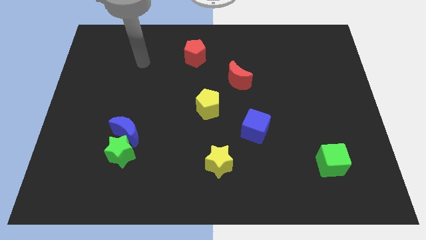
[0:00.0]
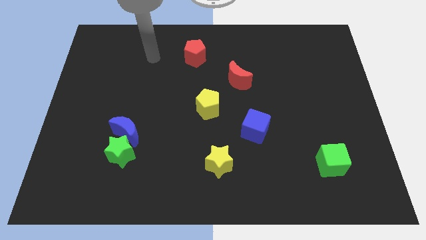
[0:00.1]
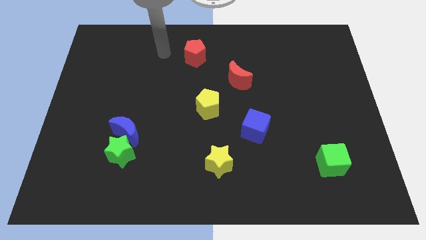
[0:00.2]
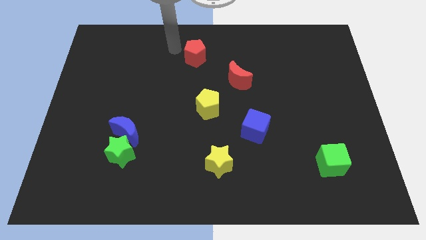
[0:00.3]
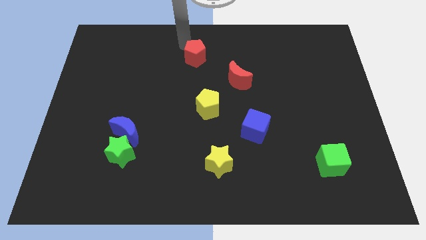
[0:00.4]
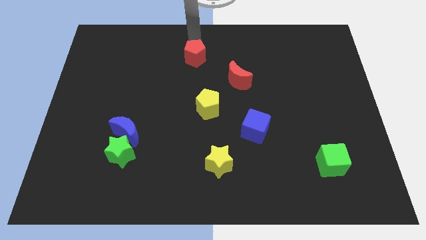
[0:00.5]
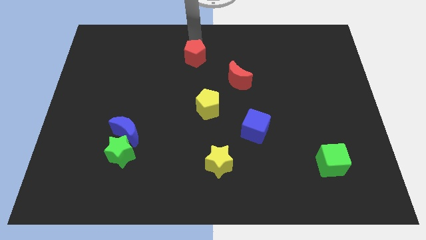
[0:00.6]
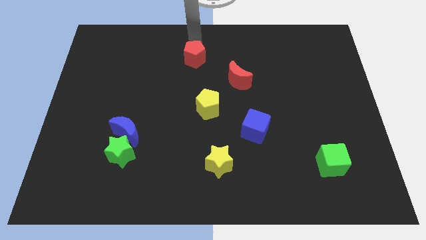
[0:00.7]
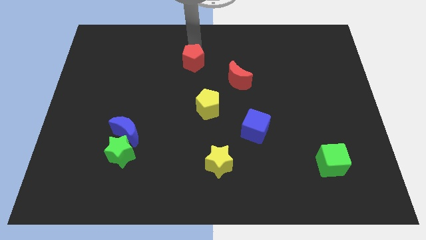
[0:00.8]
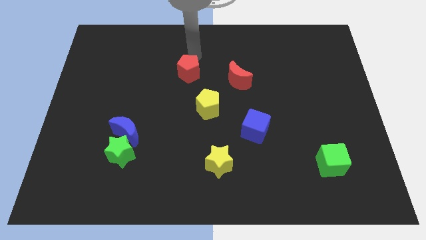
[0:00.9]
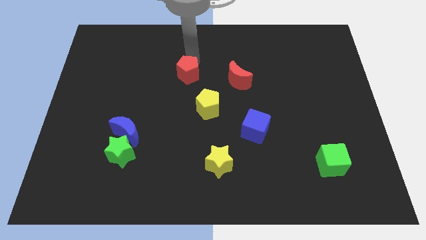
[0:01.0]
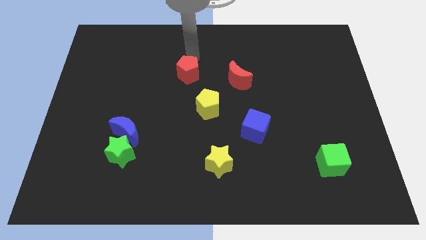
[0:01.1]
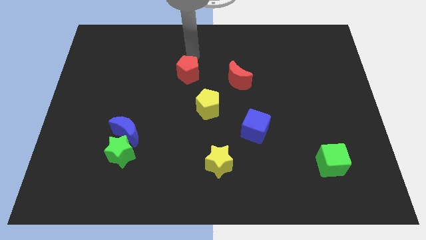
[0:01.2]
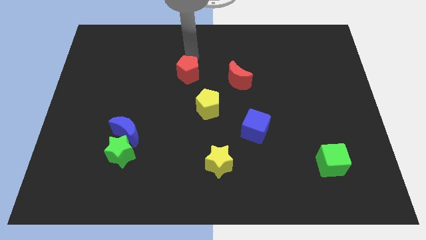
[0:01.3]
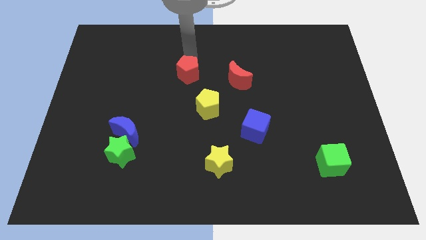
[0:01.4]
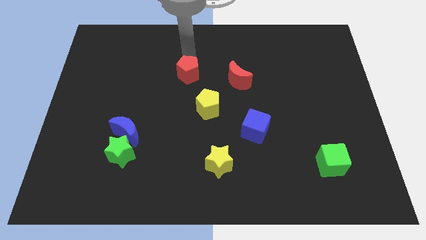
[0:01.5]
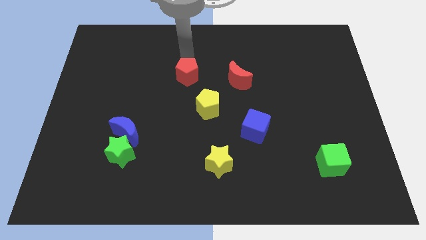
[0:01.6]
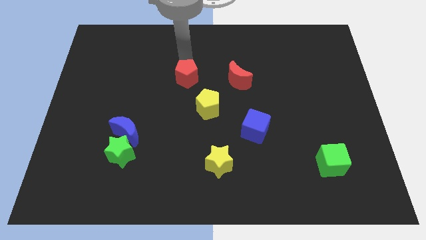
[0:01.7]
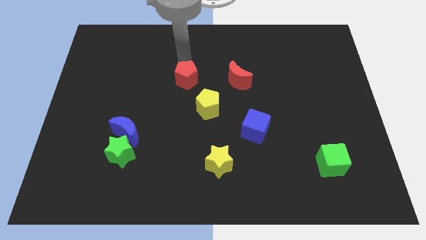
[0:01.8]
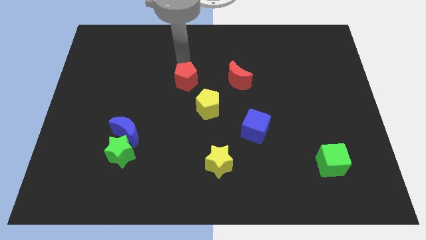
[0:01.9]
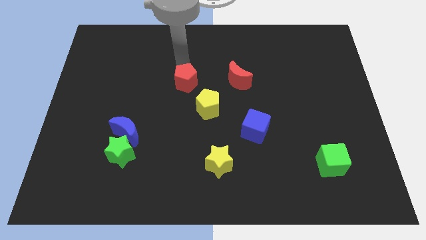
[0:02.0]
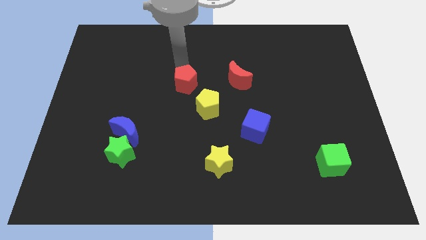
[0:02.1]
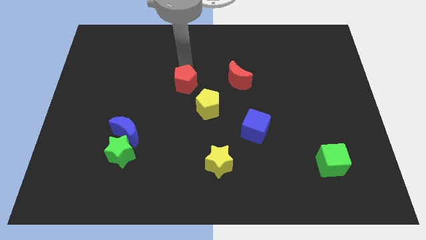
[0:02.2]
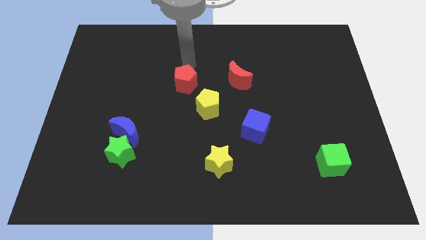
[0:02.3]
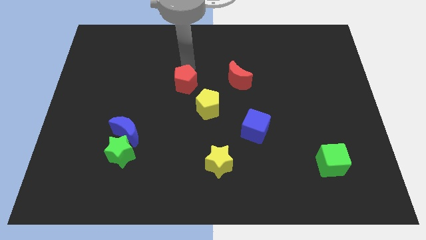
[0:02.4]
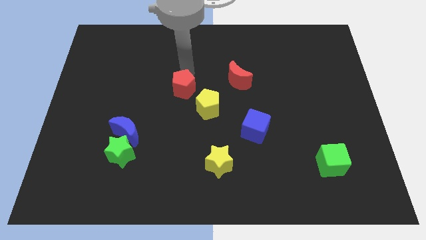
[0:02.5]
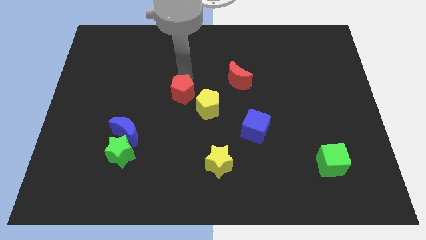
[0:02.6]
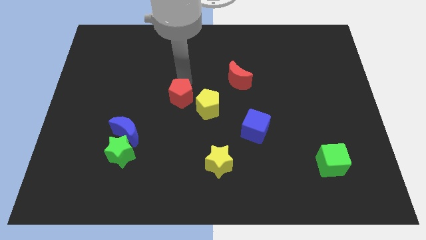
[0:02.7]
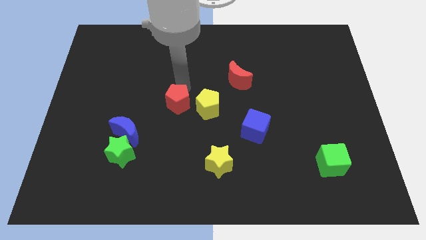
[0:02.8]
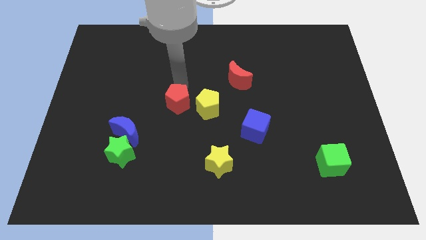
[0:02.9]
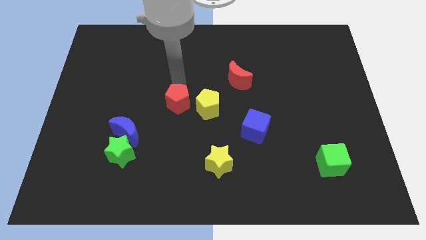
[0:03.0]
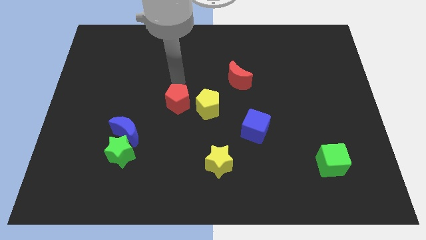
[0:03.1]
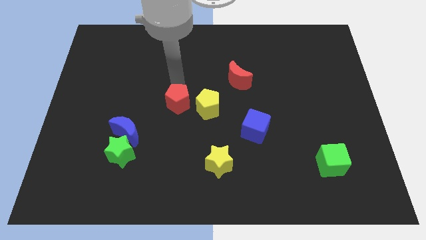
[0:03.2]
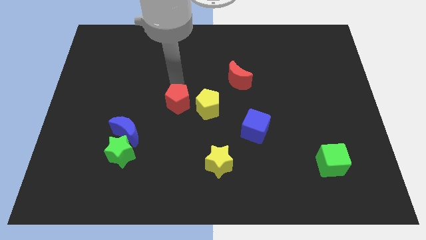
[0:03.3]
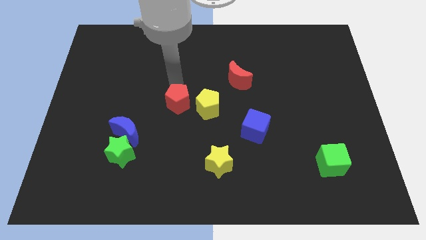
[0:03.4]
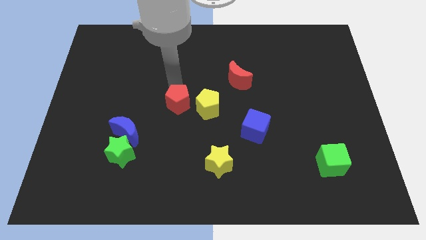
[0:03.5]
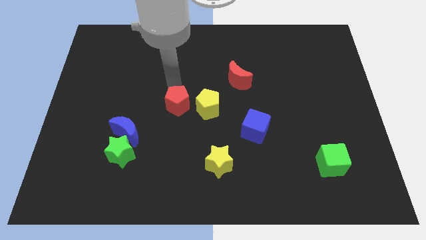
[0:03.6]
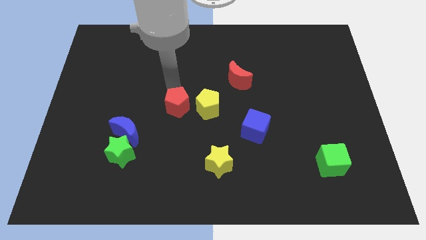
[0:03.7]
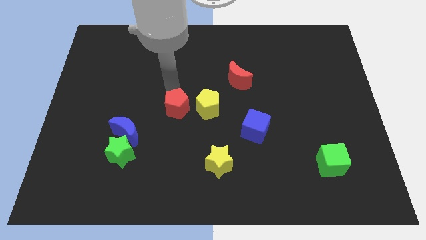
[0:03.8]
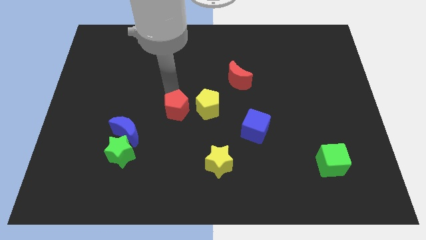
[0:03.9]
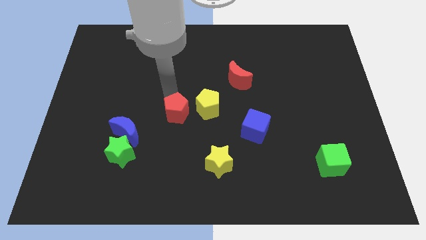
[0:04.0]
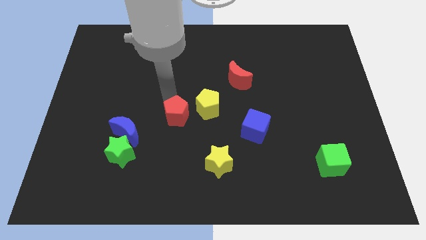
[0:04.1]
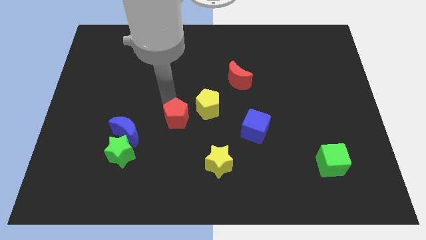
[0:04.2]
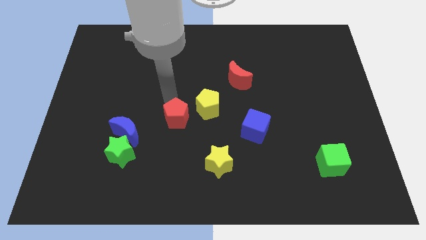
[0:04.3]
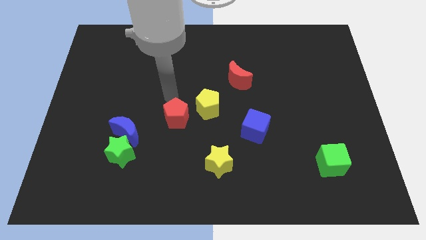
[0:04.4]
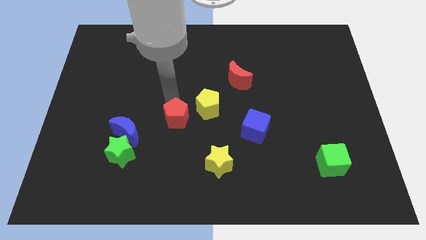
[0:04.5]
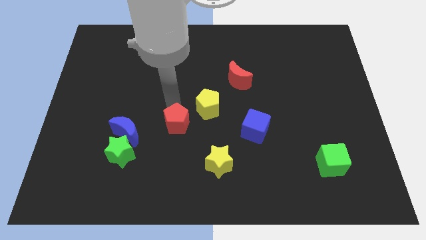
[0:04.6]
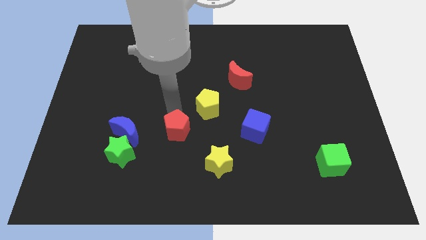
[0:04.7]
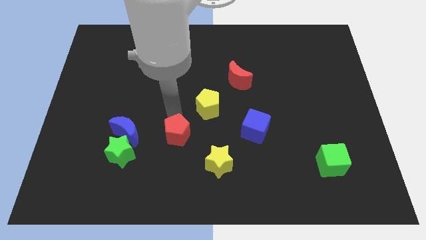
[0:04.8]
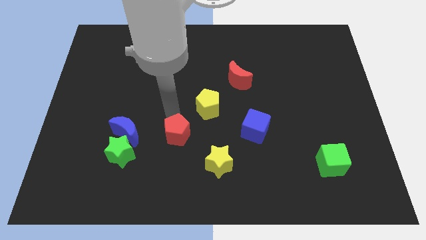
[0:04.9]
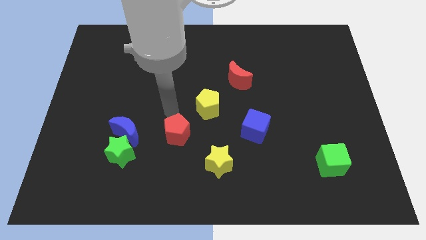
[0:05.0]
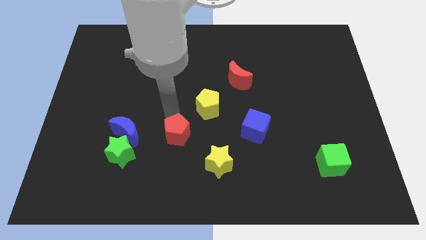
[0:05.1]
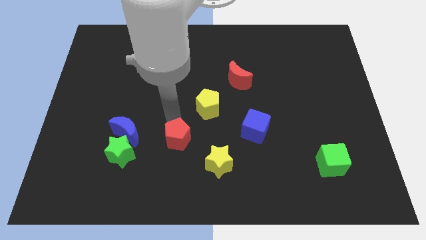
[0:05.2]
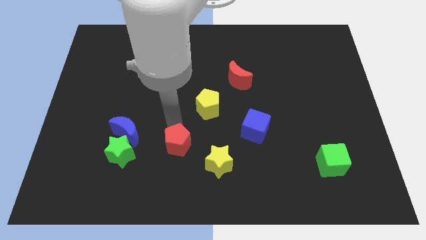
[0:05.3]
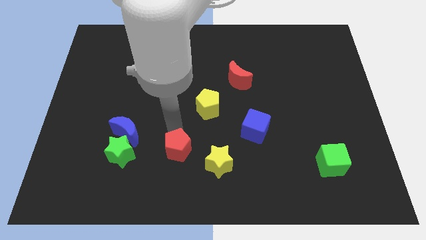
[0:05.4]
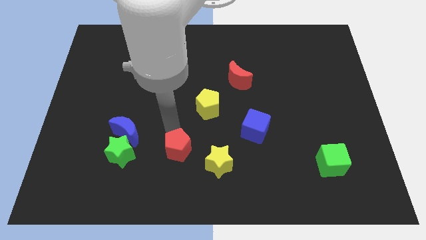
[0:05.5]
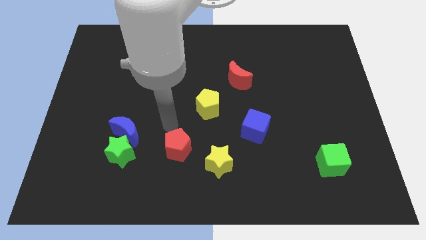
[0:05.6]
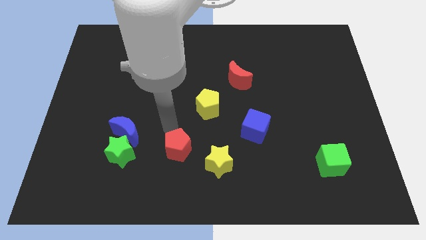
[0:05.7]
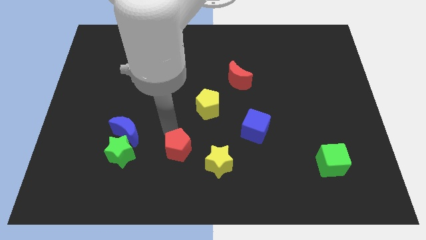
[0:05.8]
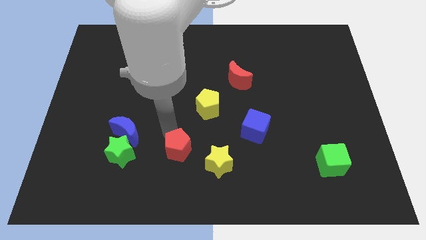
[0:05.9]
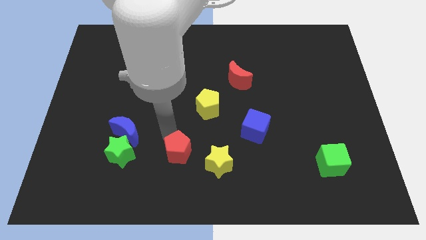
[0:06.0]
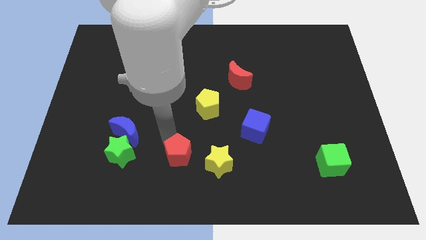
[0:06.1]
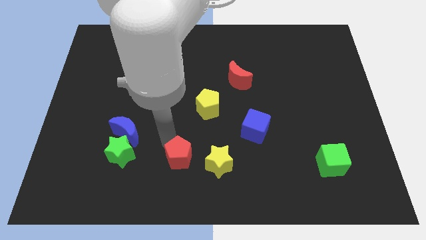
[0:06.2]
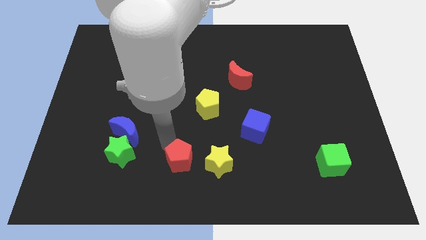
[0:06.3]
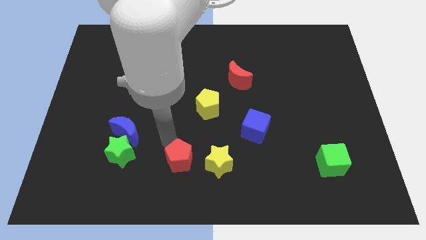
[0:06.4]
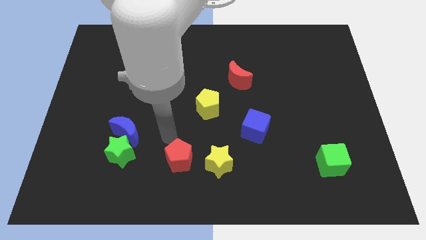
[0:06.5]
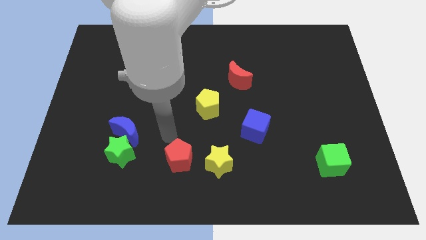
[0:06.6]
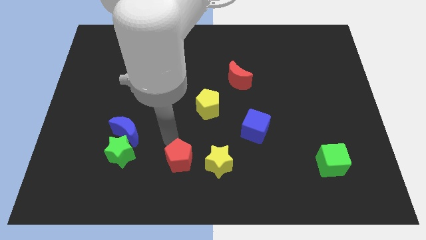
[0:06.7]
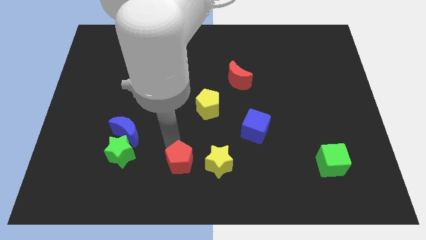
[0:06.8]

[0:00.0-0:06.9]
put the red pentagon to the bottom side
